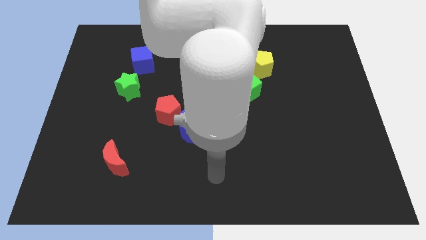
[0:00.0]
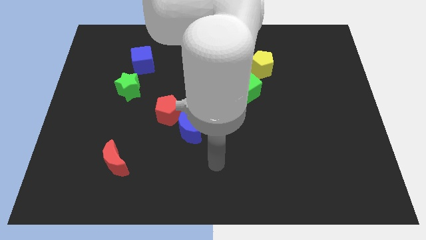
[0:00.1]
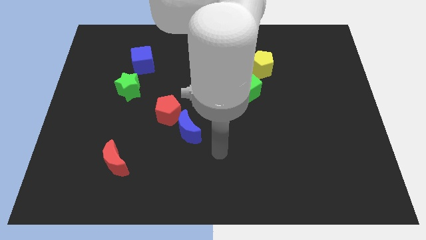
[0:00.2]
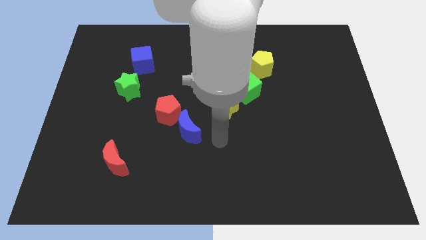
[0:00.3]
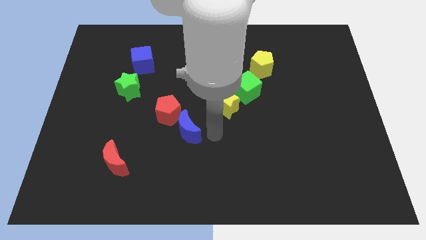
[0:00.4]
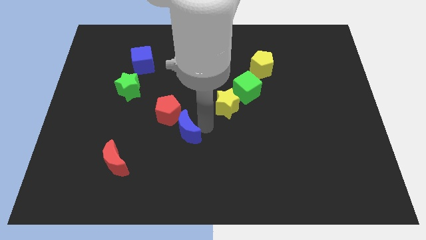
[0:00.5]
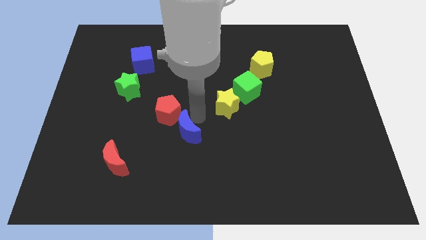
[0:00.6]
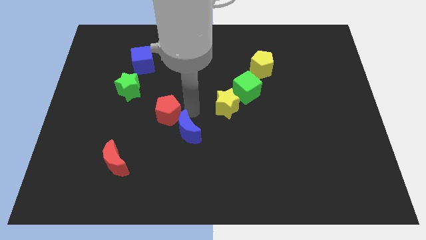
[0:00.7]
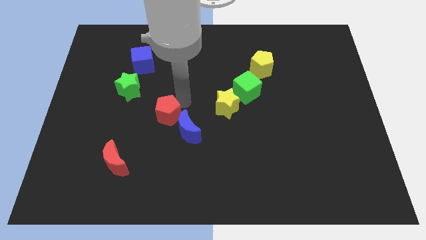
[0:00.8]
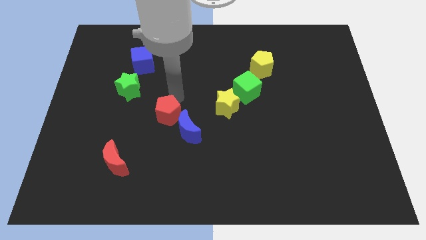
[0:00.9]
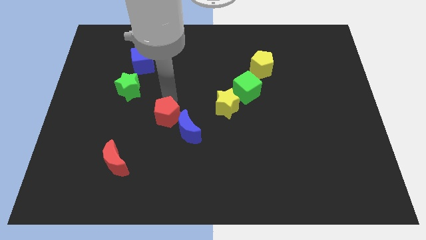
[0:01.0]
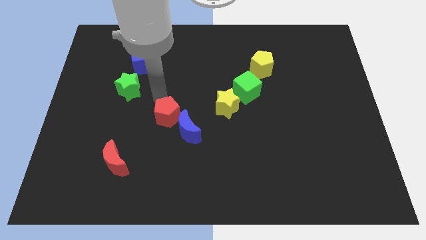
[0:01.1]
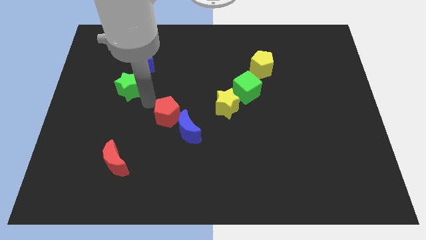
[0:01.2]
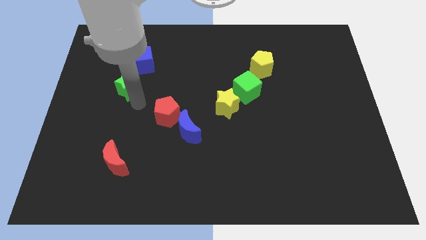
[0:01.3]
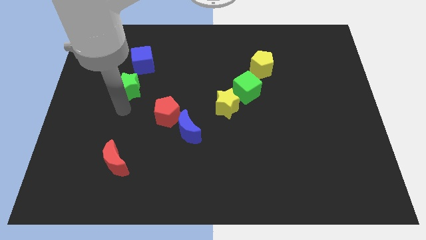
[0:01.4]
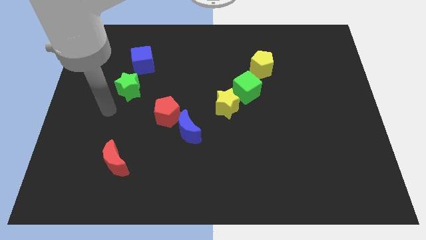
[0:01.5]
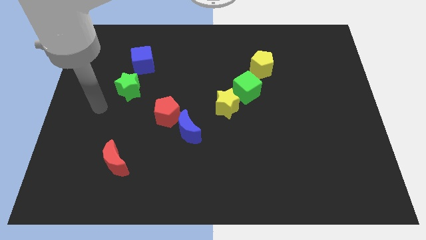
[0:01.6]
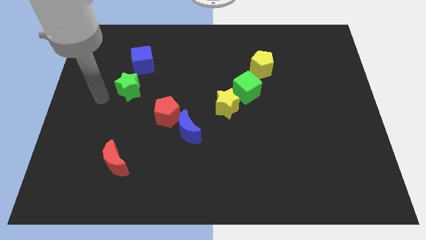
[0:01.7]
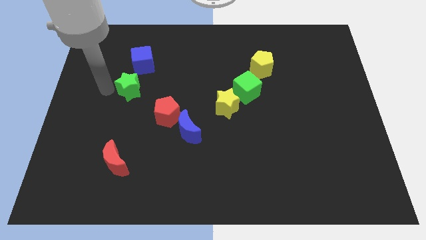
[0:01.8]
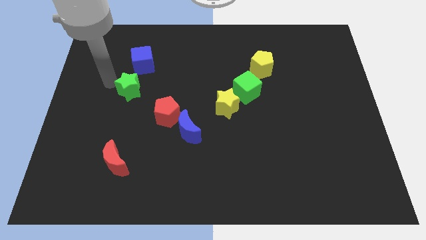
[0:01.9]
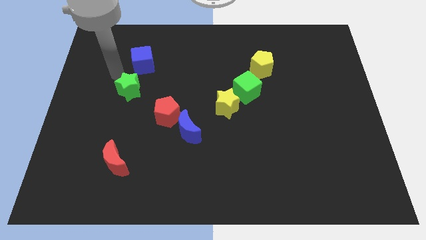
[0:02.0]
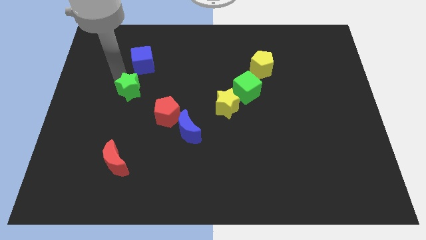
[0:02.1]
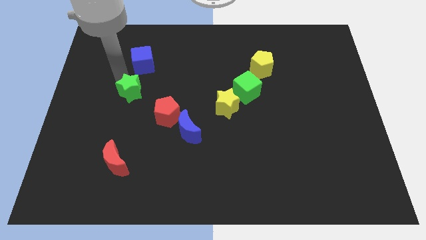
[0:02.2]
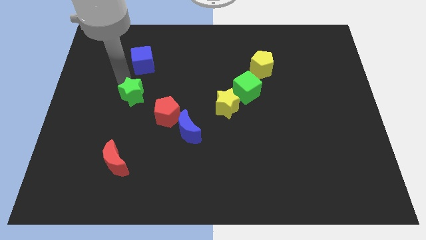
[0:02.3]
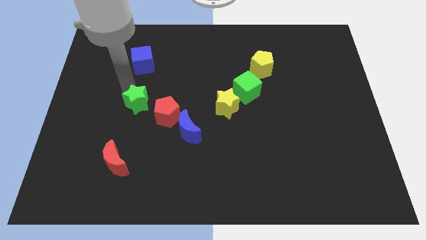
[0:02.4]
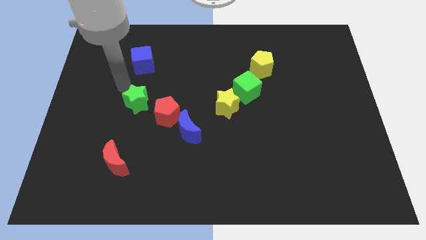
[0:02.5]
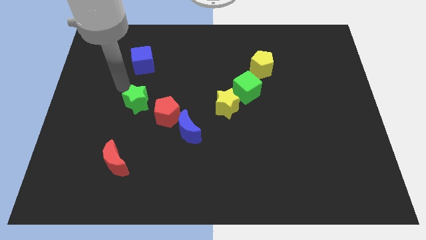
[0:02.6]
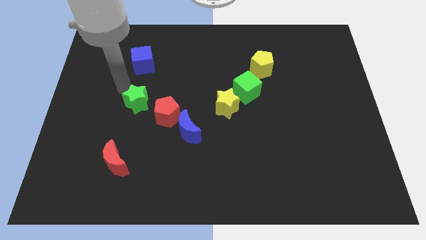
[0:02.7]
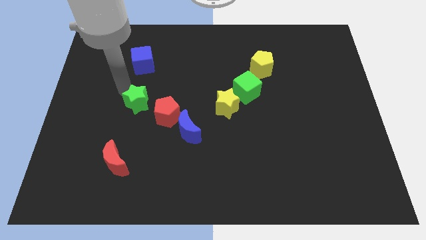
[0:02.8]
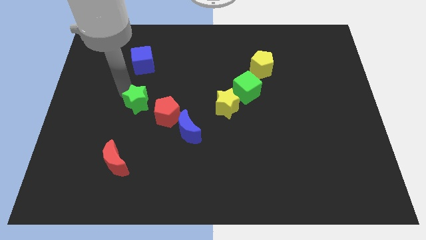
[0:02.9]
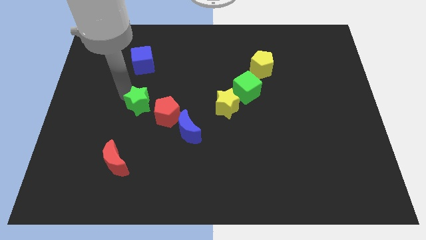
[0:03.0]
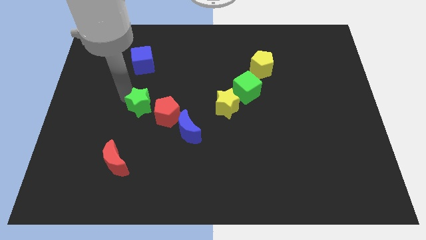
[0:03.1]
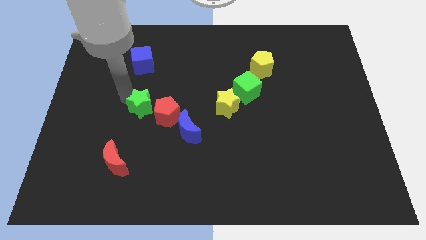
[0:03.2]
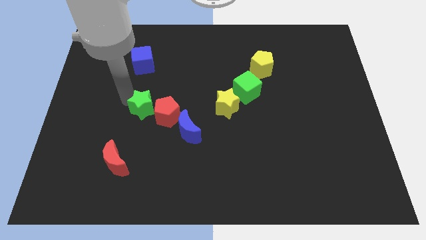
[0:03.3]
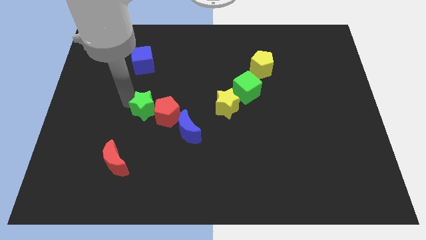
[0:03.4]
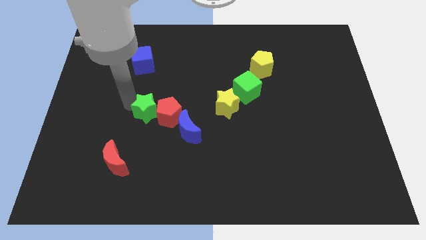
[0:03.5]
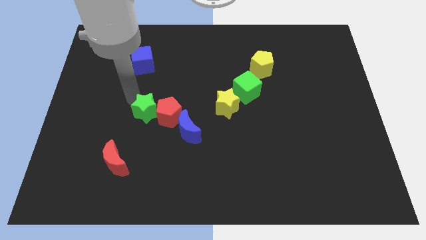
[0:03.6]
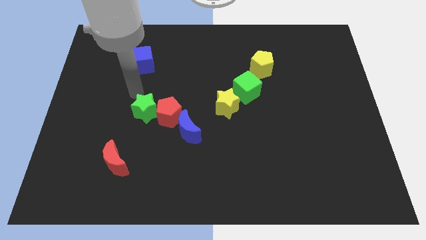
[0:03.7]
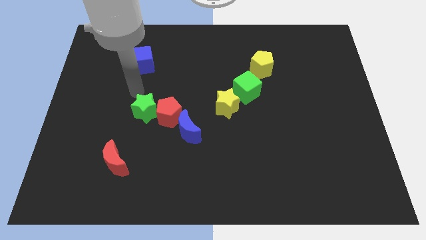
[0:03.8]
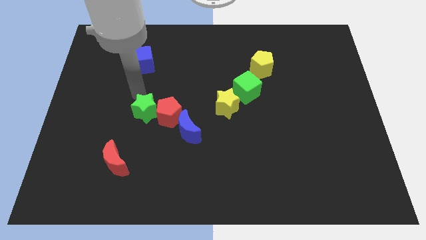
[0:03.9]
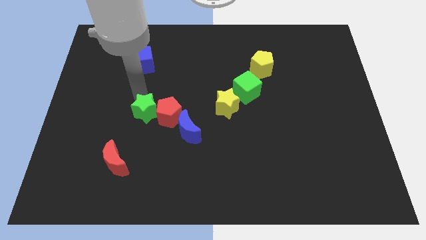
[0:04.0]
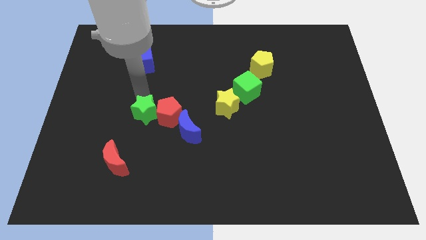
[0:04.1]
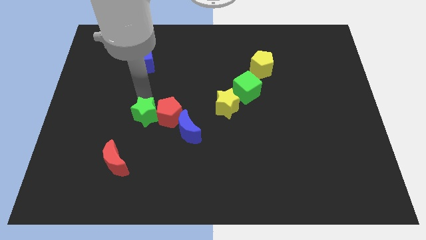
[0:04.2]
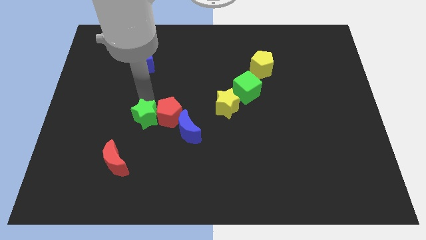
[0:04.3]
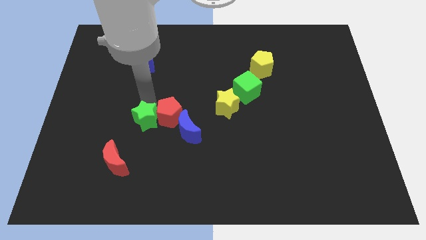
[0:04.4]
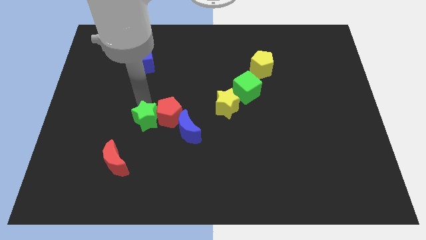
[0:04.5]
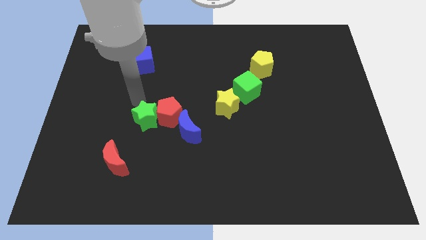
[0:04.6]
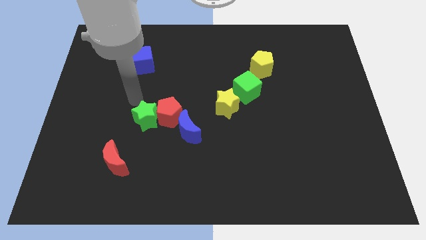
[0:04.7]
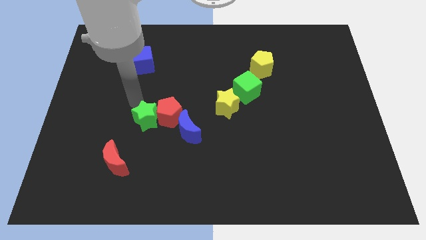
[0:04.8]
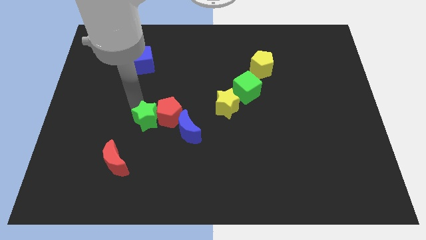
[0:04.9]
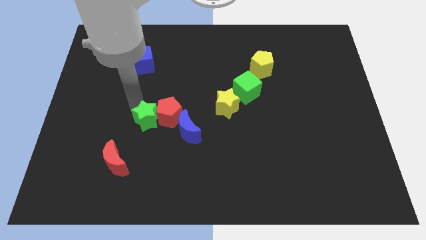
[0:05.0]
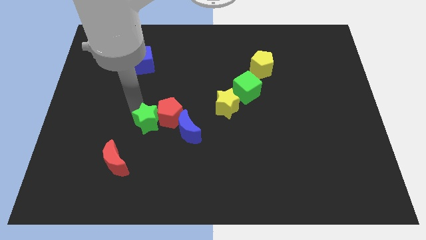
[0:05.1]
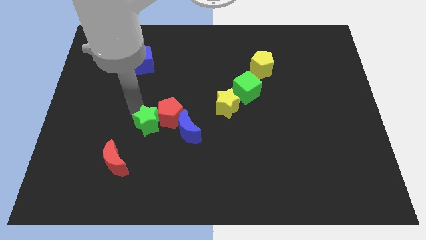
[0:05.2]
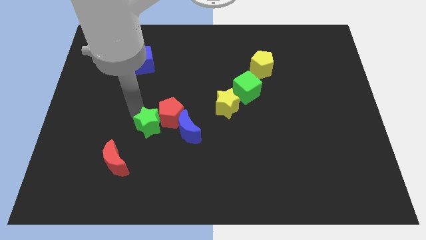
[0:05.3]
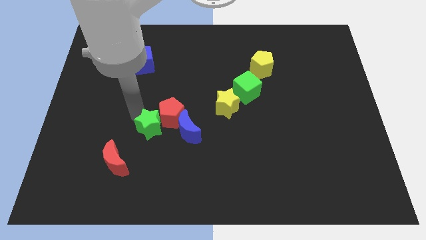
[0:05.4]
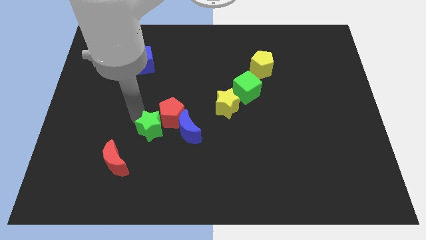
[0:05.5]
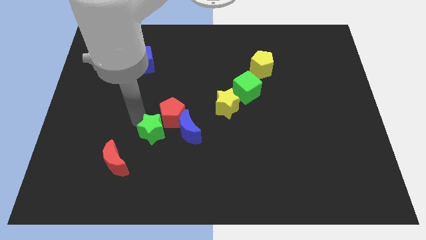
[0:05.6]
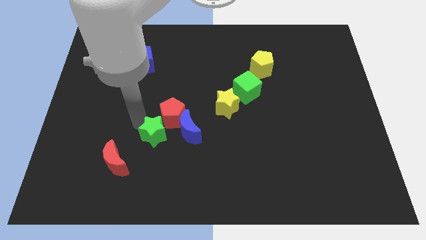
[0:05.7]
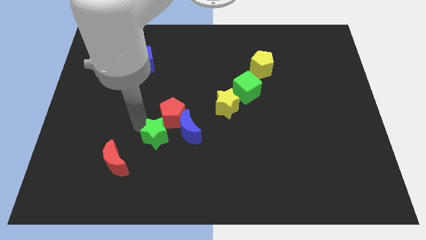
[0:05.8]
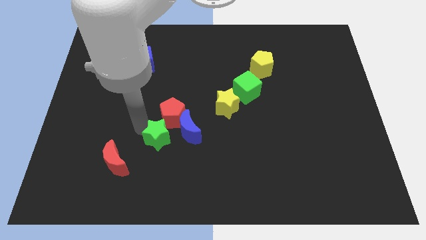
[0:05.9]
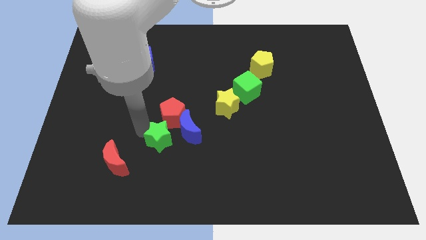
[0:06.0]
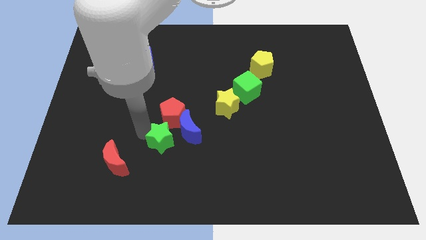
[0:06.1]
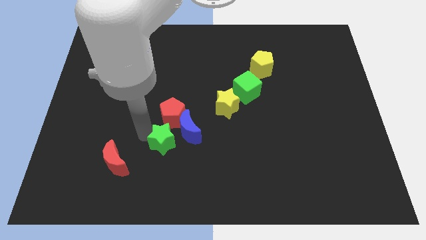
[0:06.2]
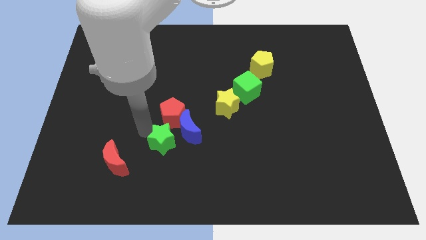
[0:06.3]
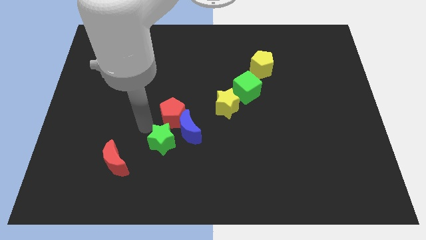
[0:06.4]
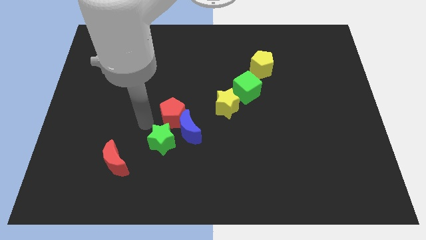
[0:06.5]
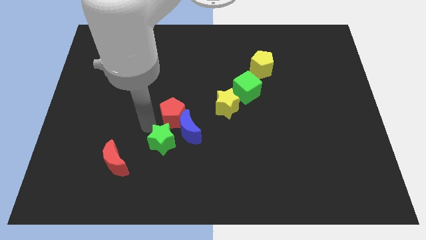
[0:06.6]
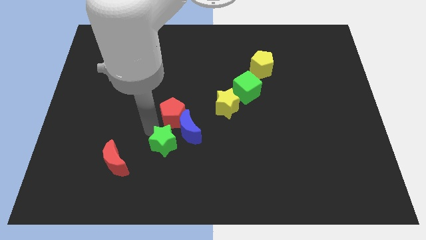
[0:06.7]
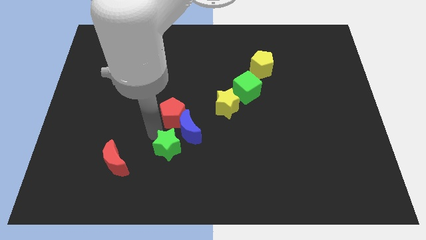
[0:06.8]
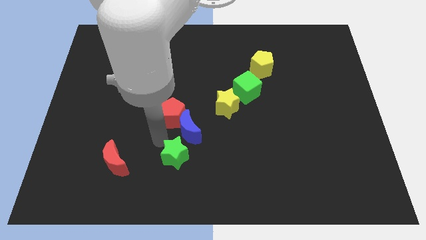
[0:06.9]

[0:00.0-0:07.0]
push the green star diagonally downwards and to the right

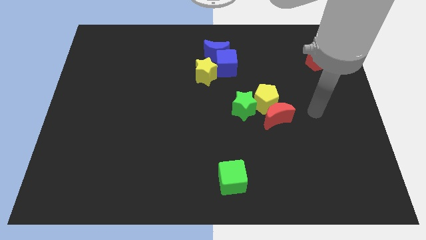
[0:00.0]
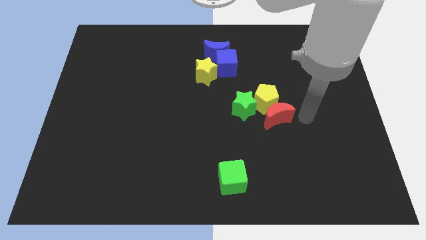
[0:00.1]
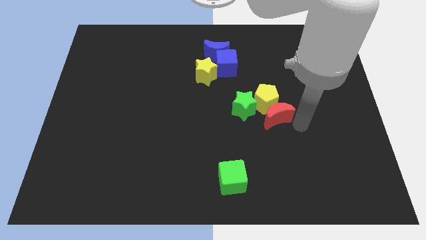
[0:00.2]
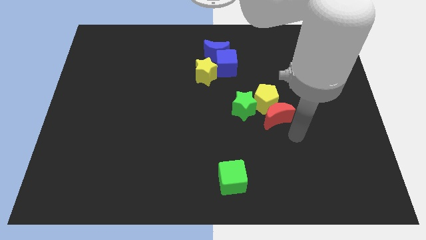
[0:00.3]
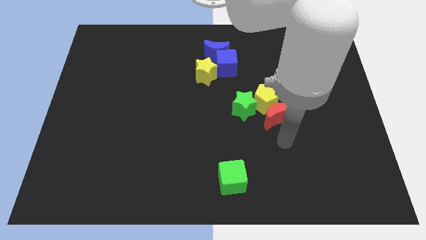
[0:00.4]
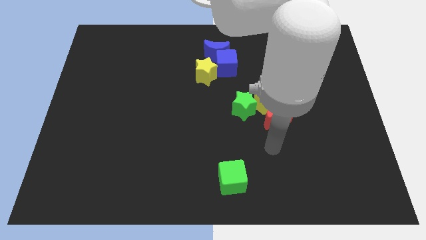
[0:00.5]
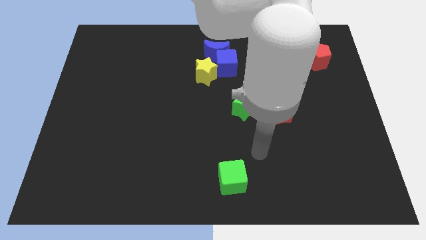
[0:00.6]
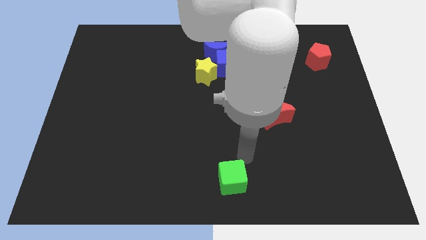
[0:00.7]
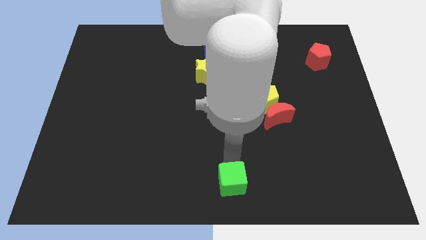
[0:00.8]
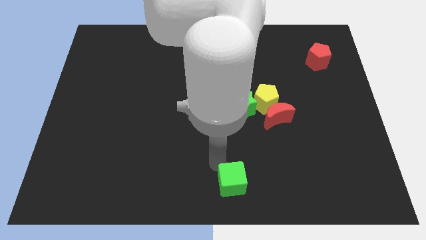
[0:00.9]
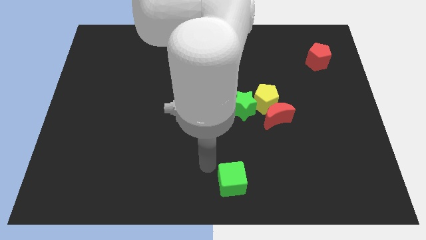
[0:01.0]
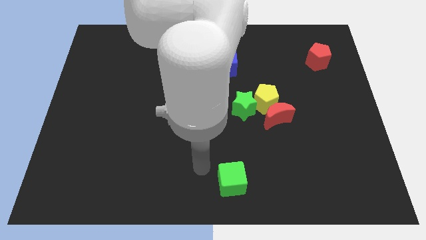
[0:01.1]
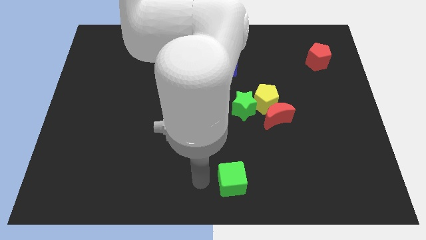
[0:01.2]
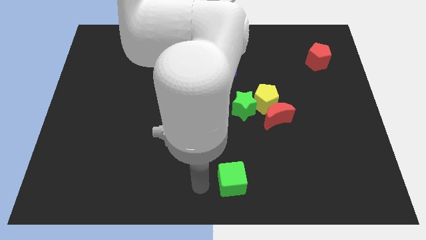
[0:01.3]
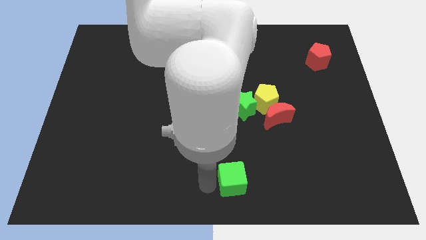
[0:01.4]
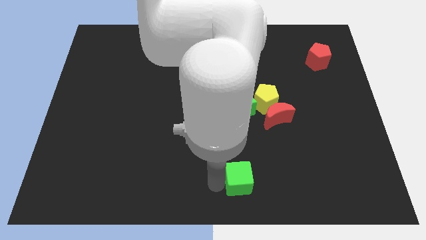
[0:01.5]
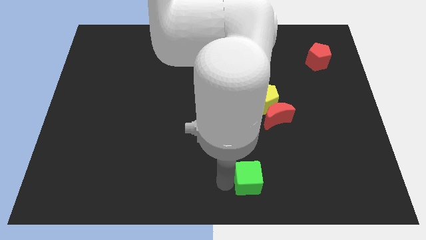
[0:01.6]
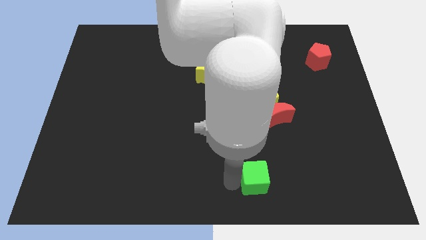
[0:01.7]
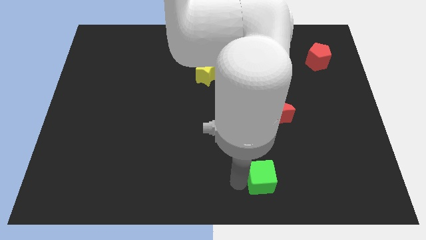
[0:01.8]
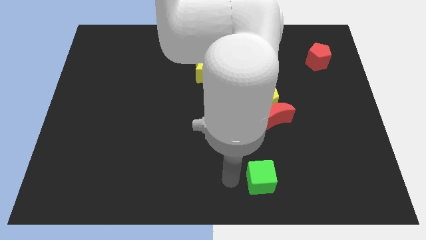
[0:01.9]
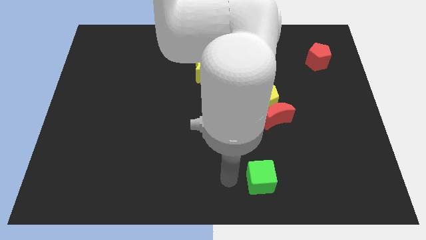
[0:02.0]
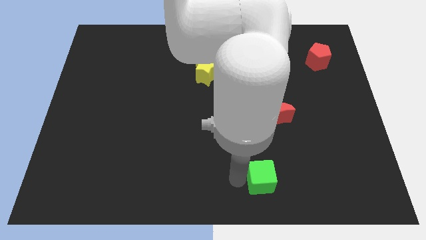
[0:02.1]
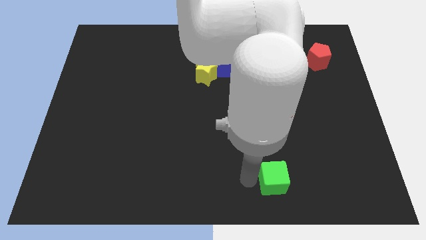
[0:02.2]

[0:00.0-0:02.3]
slightly push the green cube to the right
